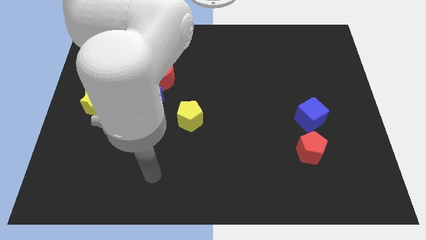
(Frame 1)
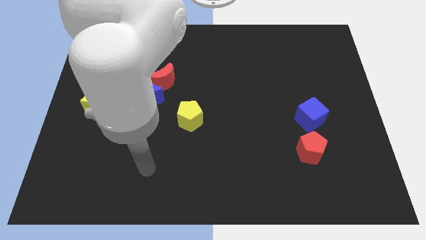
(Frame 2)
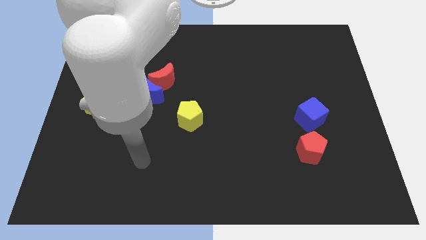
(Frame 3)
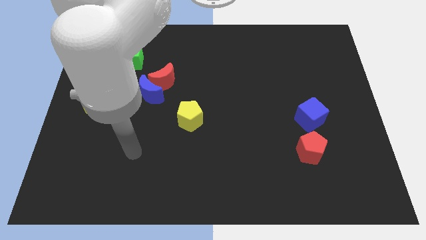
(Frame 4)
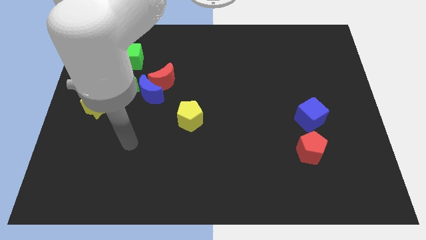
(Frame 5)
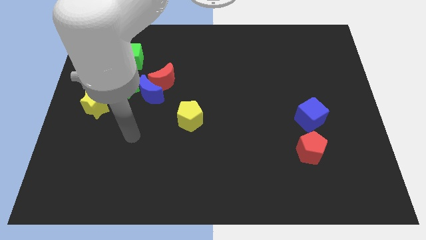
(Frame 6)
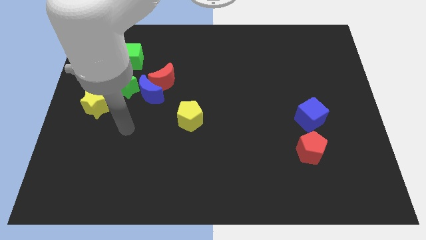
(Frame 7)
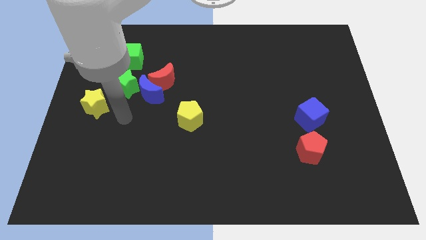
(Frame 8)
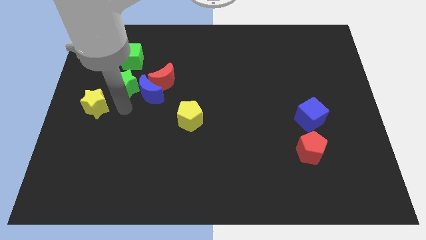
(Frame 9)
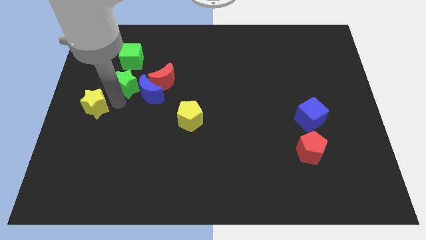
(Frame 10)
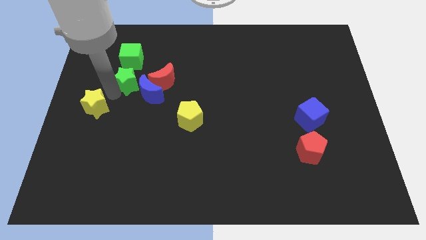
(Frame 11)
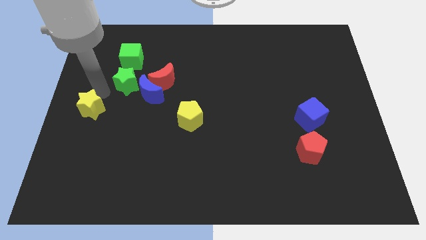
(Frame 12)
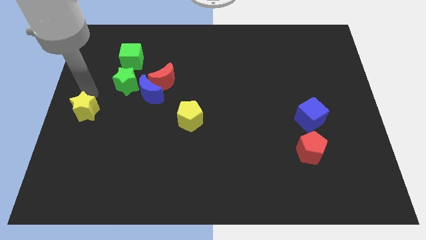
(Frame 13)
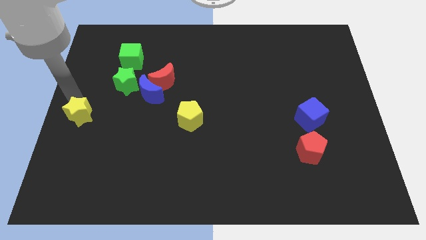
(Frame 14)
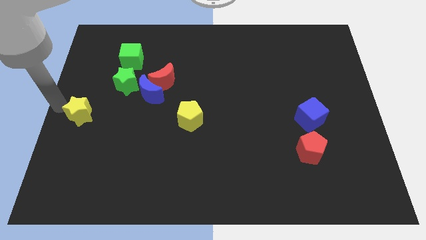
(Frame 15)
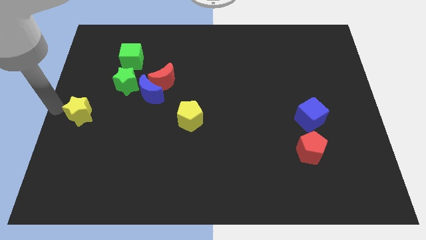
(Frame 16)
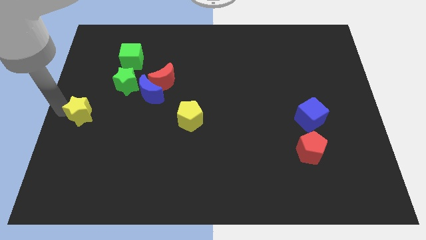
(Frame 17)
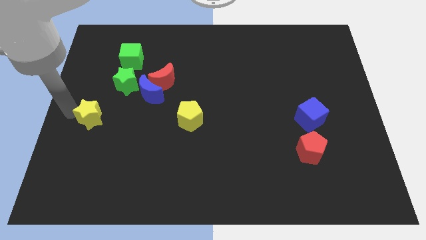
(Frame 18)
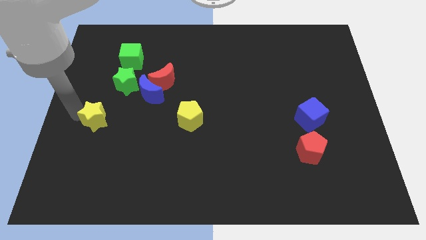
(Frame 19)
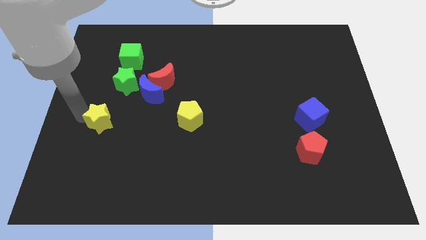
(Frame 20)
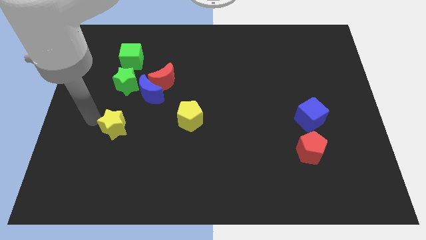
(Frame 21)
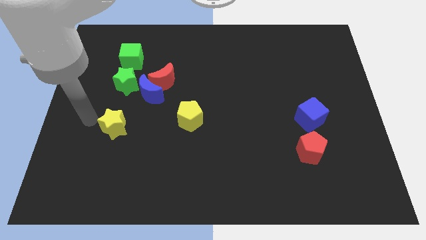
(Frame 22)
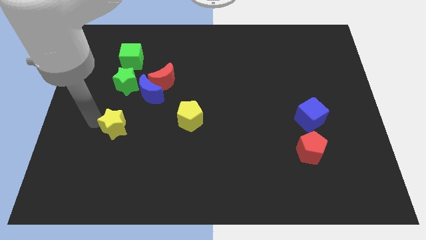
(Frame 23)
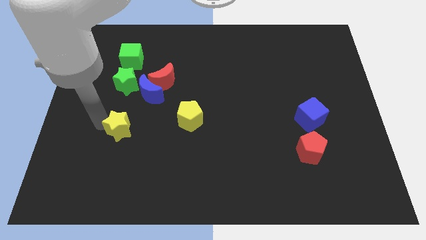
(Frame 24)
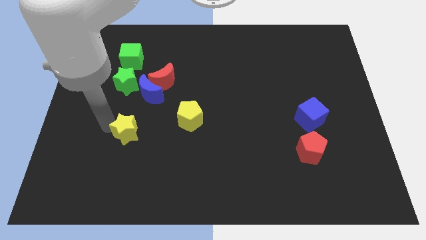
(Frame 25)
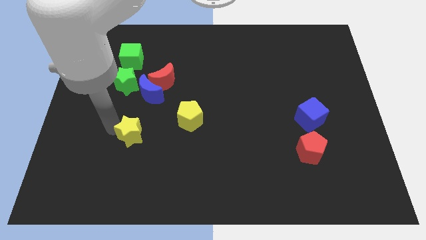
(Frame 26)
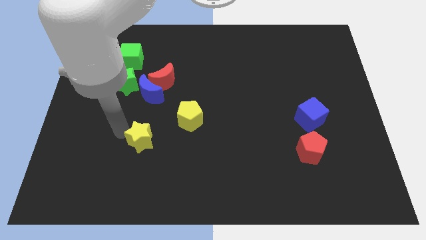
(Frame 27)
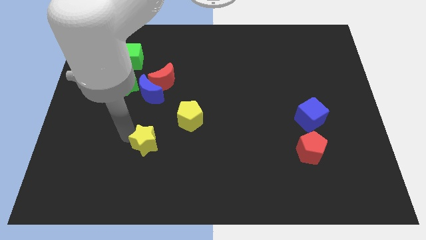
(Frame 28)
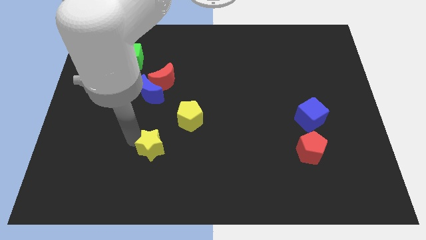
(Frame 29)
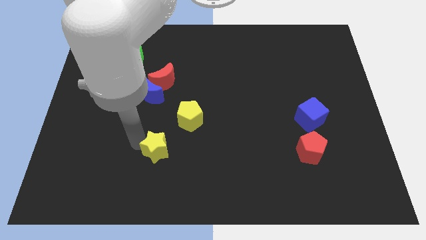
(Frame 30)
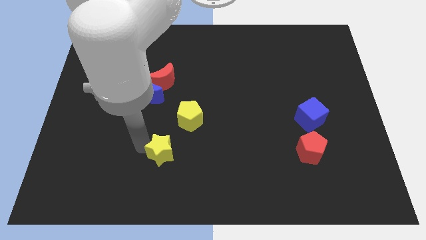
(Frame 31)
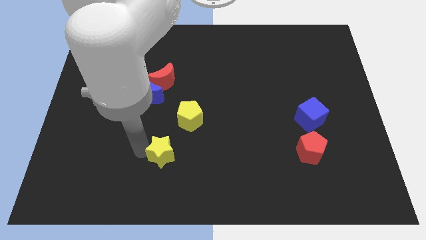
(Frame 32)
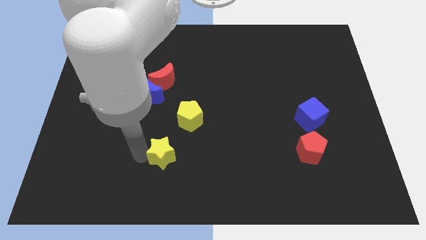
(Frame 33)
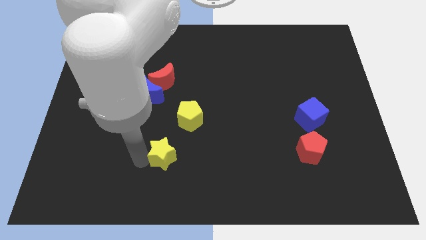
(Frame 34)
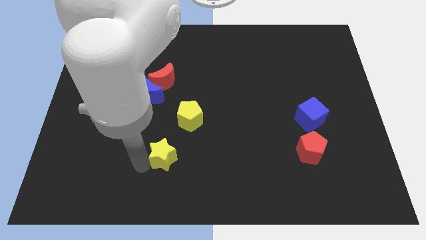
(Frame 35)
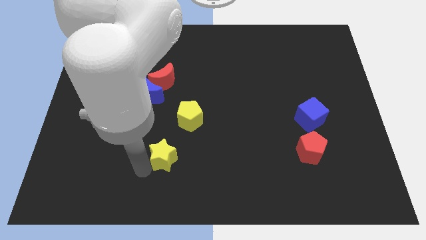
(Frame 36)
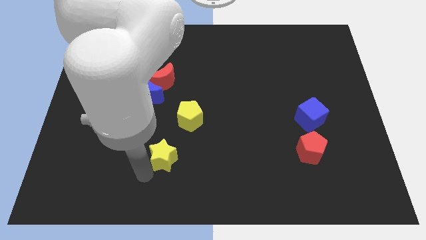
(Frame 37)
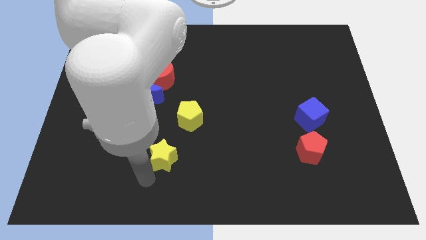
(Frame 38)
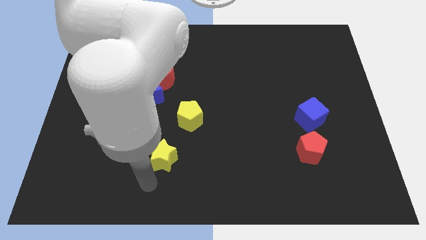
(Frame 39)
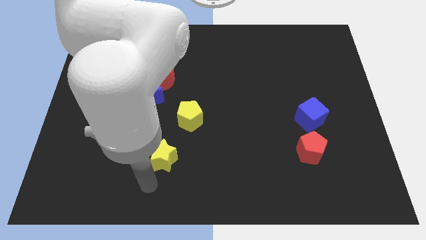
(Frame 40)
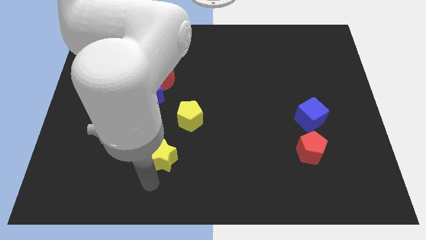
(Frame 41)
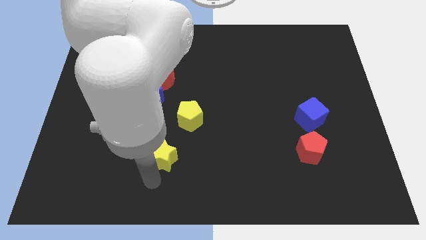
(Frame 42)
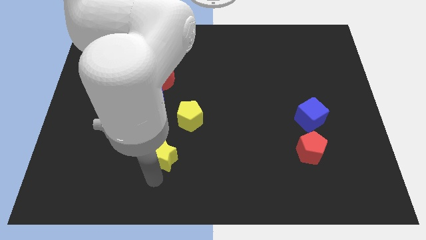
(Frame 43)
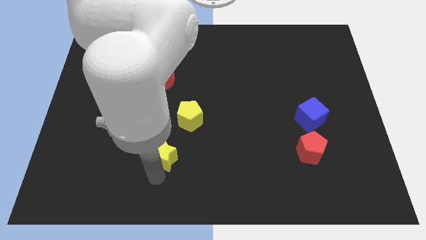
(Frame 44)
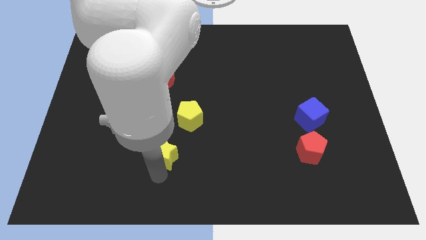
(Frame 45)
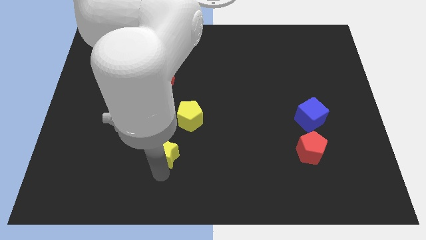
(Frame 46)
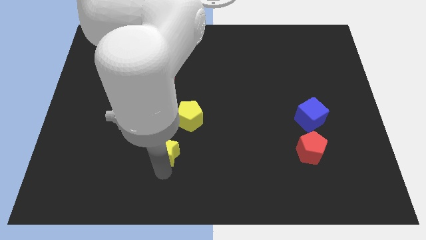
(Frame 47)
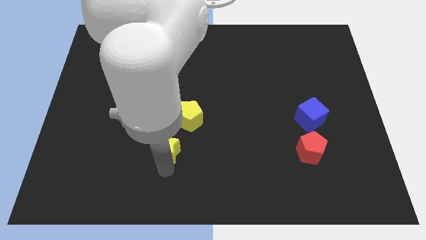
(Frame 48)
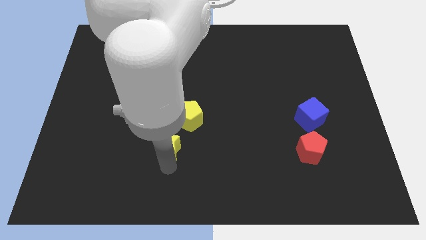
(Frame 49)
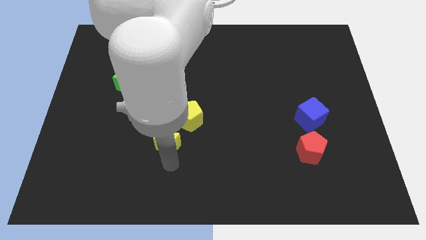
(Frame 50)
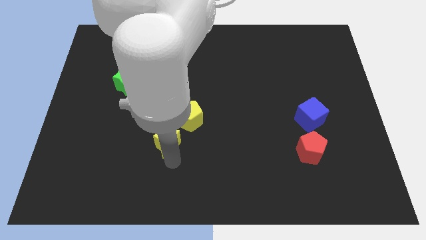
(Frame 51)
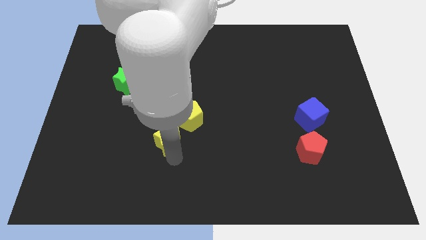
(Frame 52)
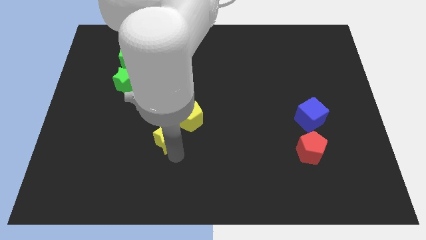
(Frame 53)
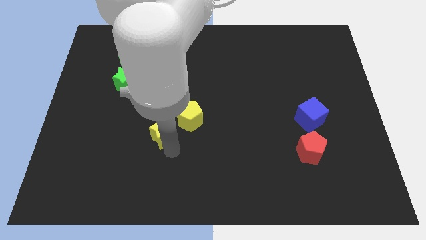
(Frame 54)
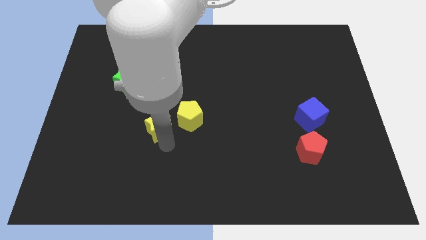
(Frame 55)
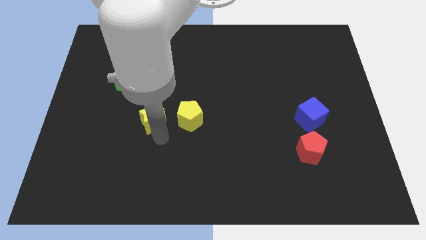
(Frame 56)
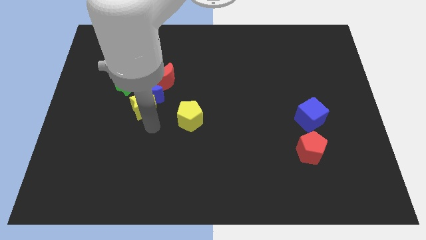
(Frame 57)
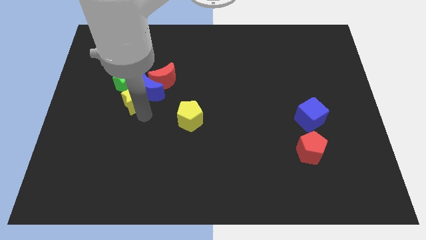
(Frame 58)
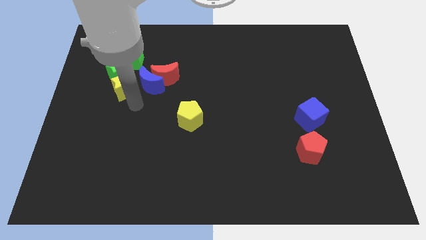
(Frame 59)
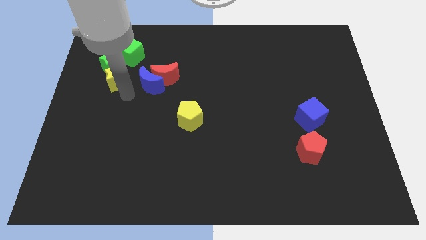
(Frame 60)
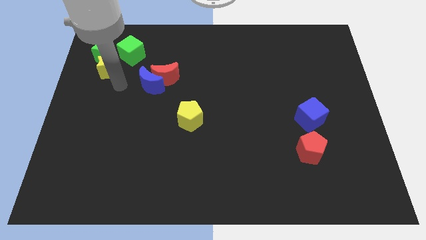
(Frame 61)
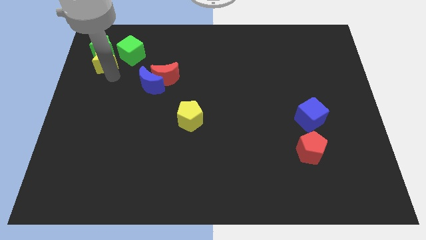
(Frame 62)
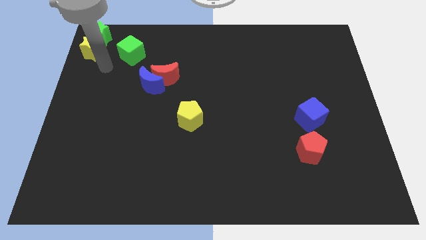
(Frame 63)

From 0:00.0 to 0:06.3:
push the yellow star to the upper left corner

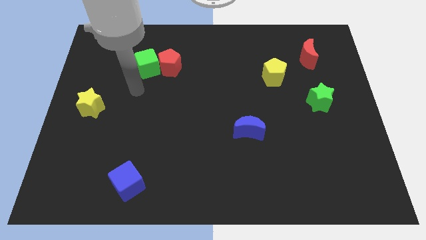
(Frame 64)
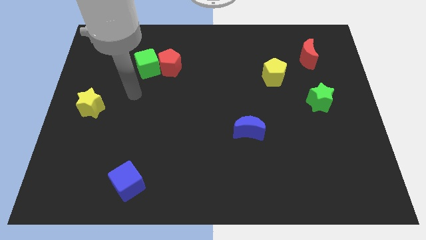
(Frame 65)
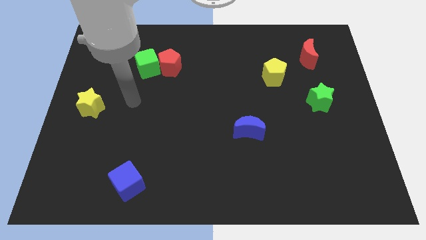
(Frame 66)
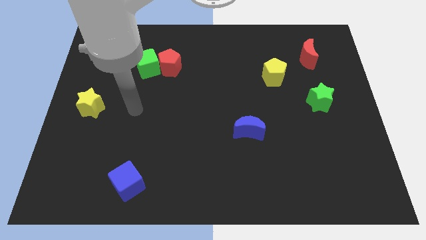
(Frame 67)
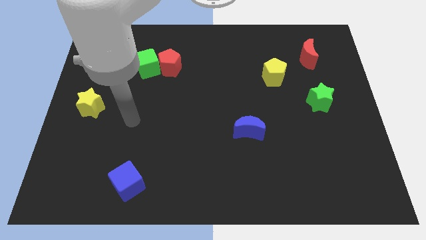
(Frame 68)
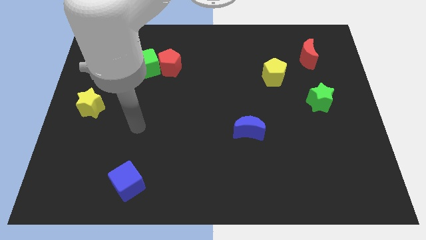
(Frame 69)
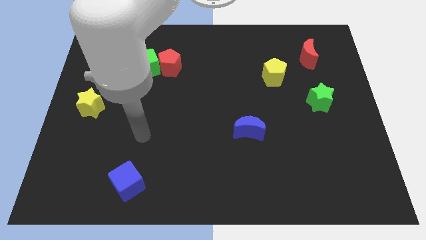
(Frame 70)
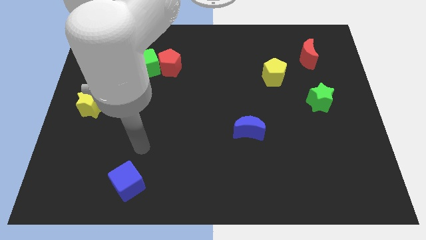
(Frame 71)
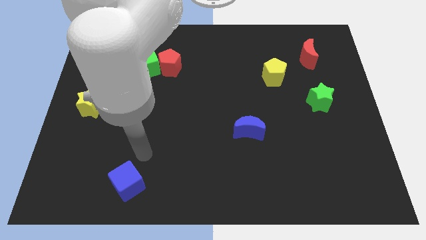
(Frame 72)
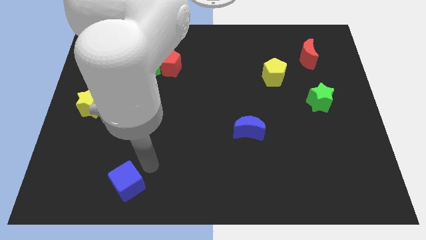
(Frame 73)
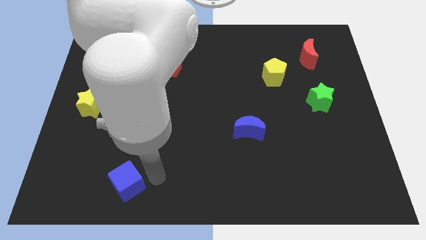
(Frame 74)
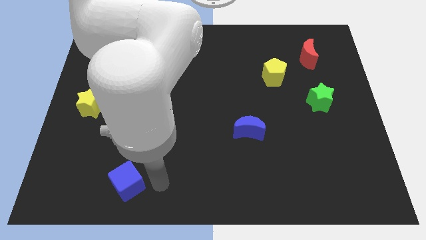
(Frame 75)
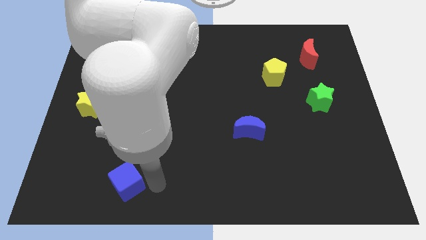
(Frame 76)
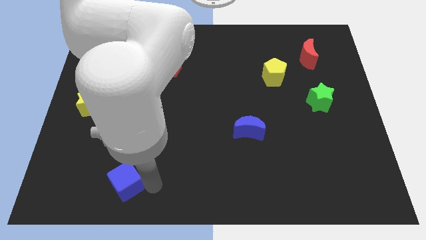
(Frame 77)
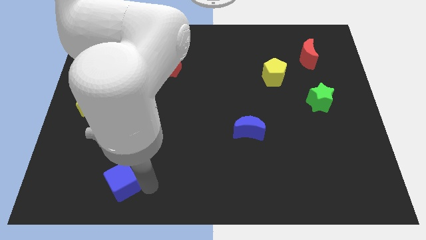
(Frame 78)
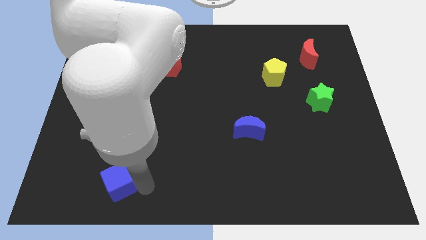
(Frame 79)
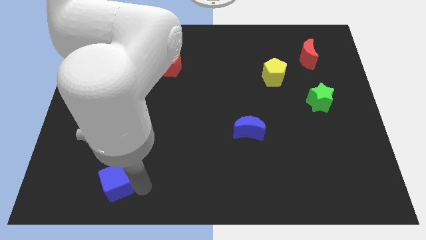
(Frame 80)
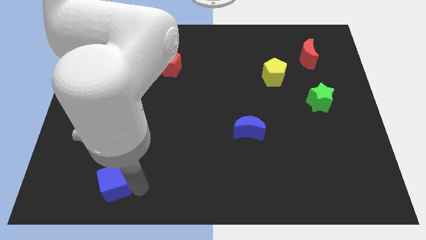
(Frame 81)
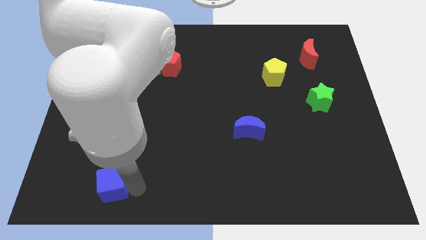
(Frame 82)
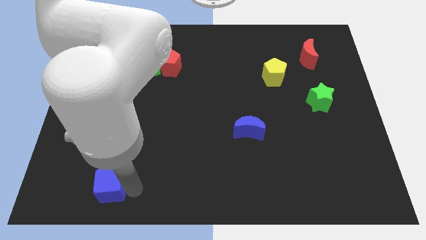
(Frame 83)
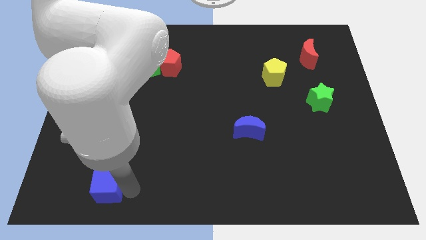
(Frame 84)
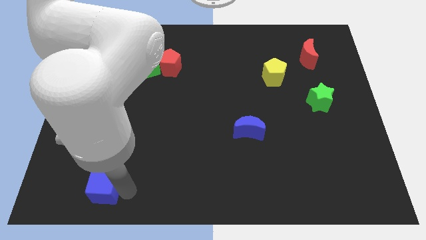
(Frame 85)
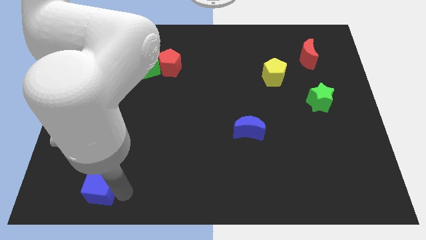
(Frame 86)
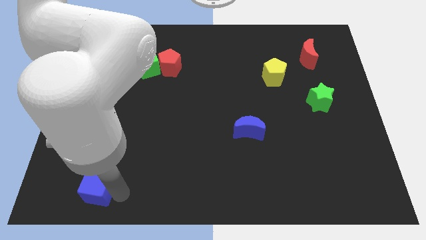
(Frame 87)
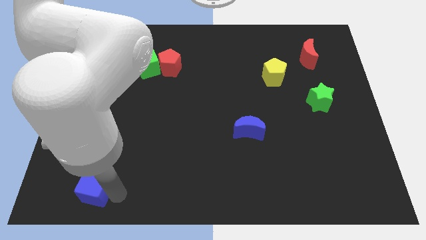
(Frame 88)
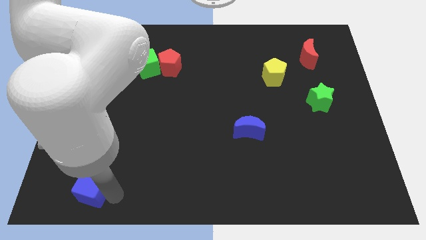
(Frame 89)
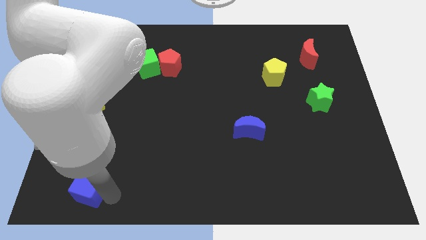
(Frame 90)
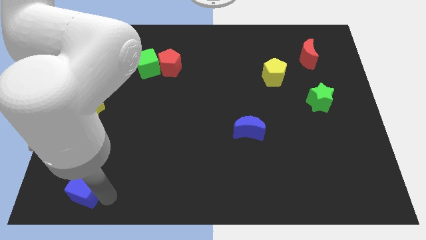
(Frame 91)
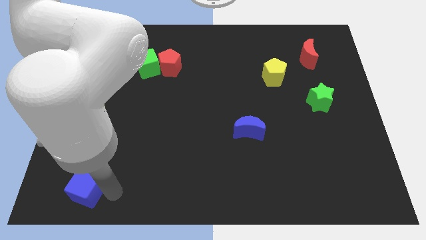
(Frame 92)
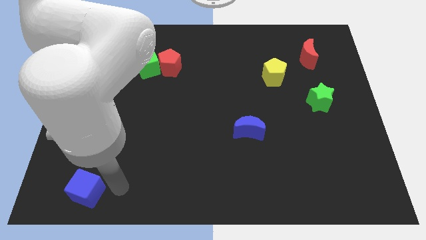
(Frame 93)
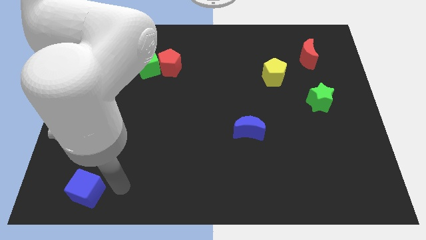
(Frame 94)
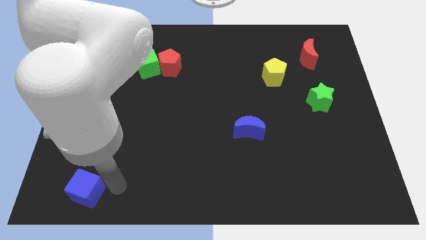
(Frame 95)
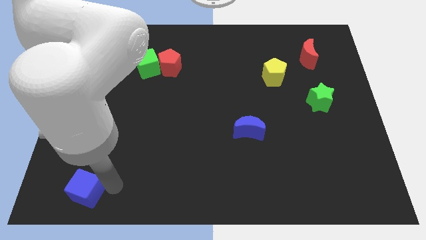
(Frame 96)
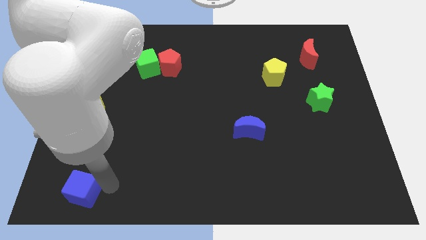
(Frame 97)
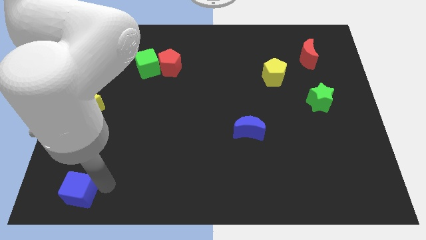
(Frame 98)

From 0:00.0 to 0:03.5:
slide the blue cube to the lower left corner
